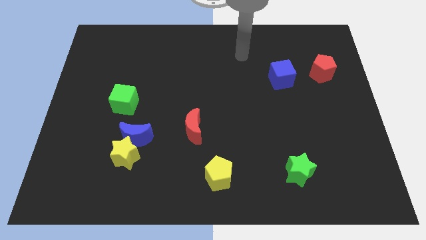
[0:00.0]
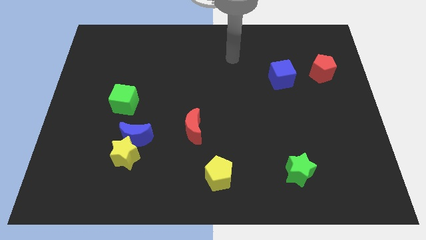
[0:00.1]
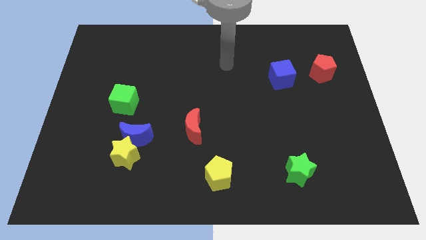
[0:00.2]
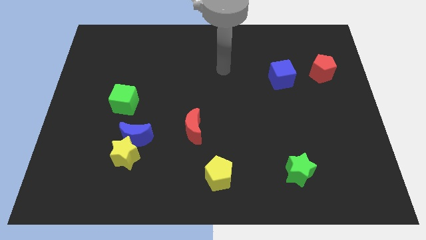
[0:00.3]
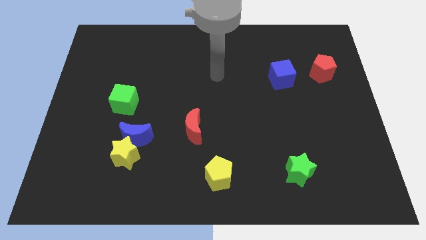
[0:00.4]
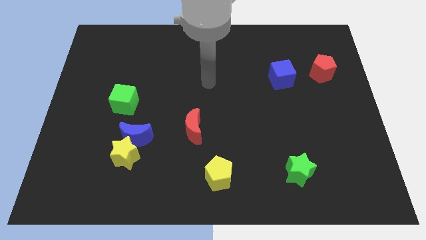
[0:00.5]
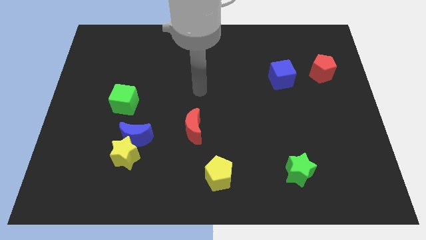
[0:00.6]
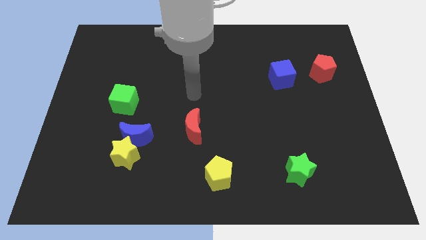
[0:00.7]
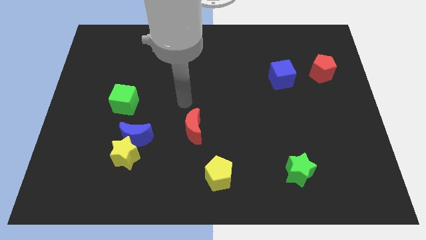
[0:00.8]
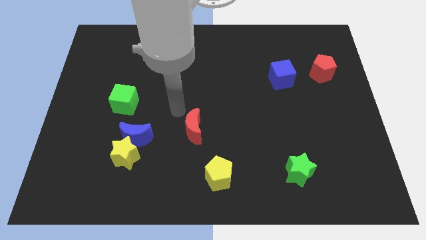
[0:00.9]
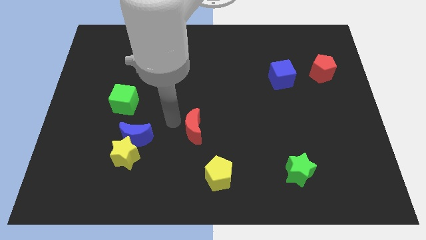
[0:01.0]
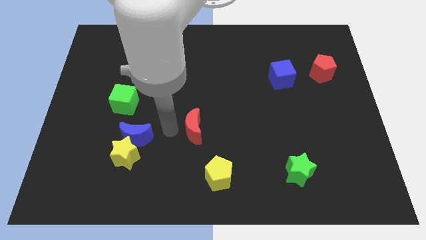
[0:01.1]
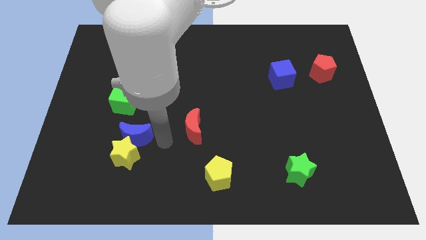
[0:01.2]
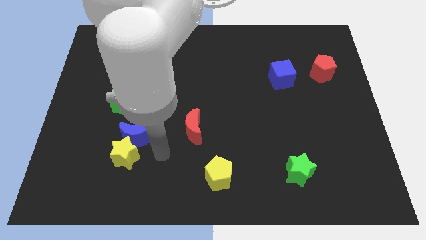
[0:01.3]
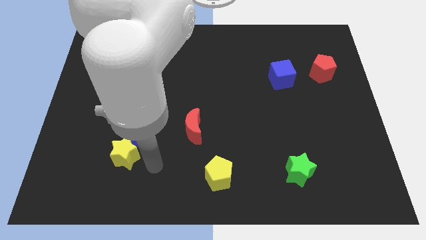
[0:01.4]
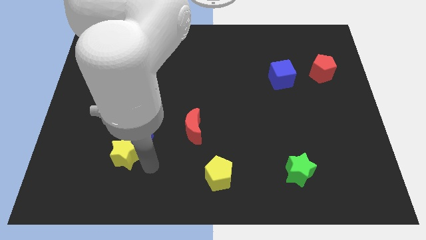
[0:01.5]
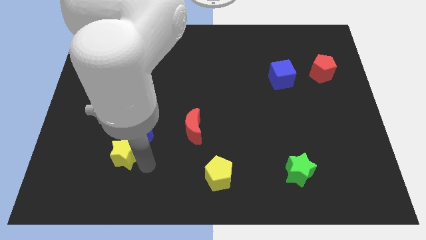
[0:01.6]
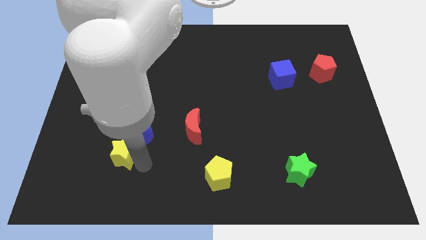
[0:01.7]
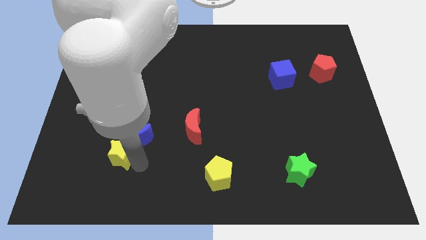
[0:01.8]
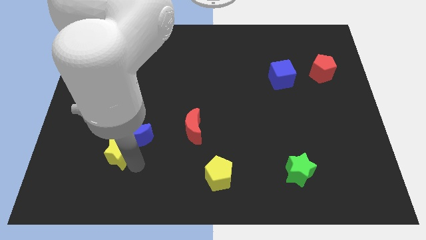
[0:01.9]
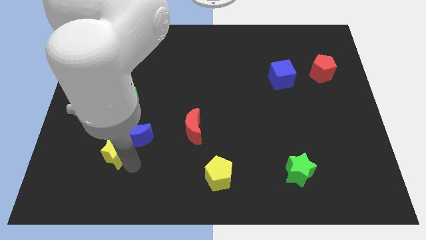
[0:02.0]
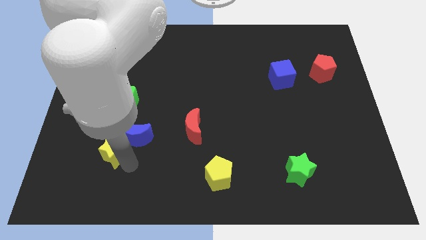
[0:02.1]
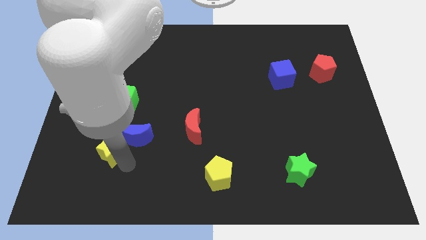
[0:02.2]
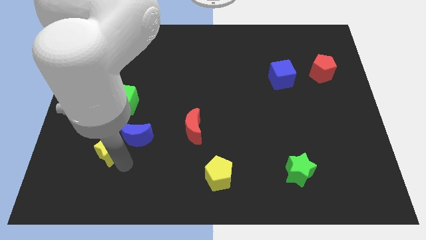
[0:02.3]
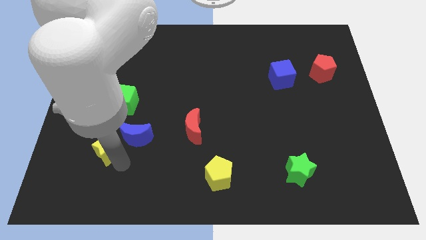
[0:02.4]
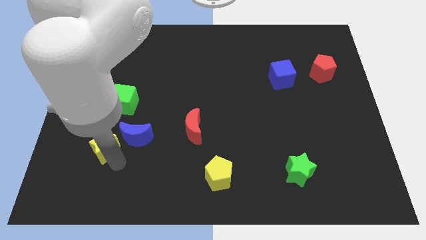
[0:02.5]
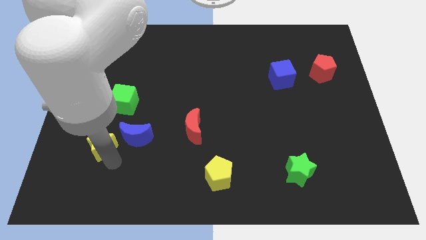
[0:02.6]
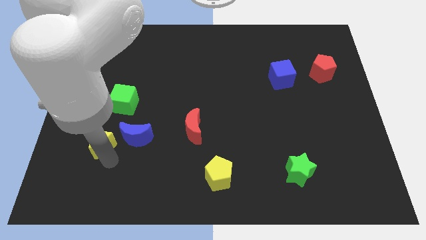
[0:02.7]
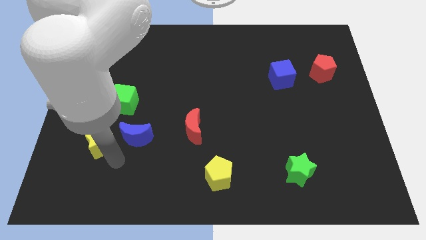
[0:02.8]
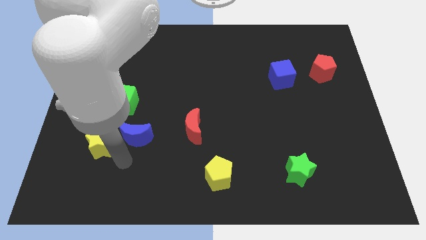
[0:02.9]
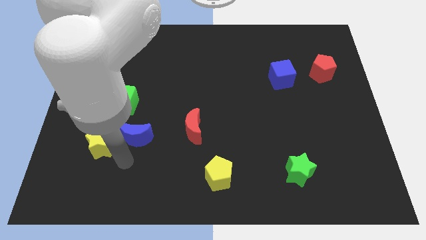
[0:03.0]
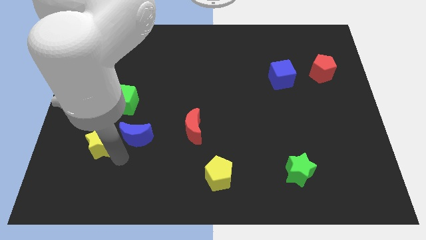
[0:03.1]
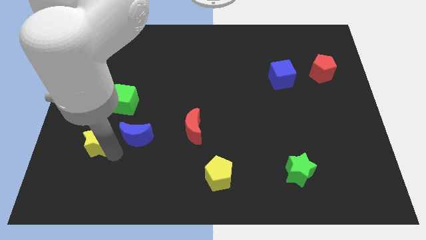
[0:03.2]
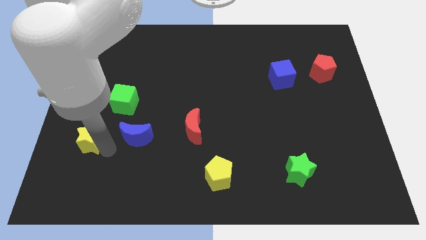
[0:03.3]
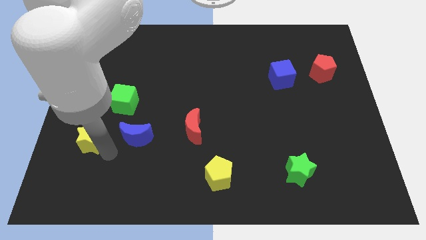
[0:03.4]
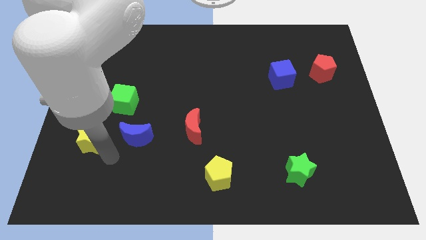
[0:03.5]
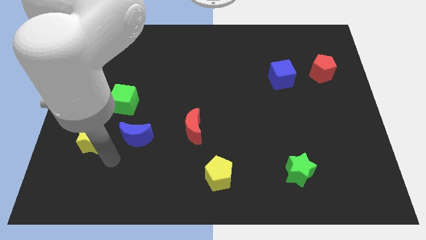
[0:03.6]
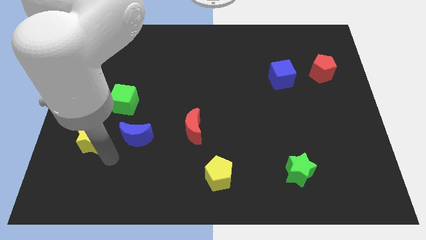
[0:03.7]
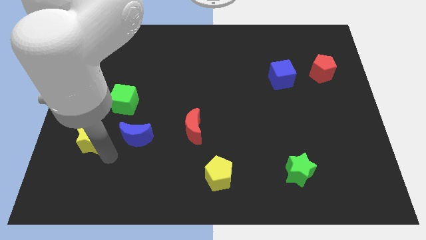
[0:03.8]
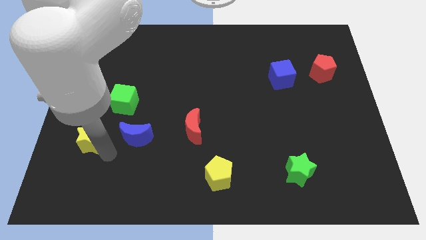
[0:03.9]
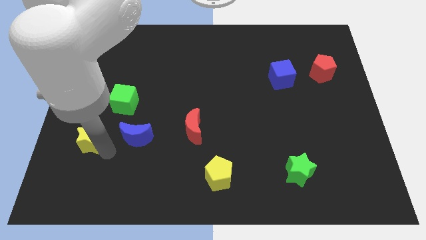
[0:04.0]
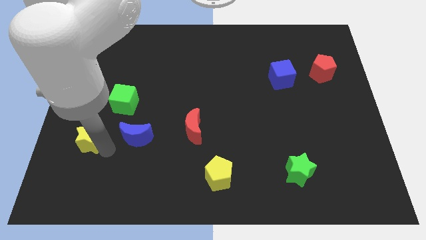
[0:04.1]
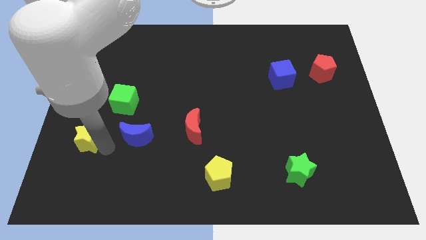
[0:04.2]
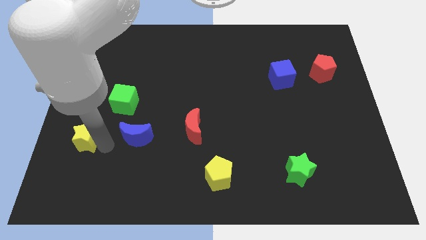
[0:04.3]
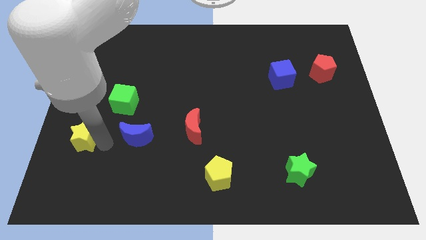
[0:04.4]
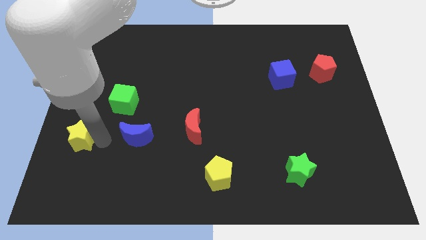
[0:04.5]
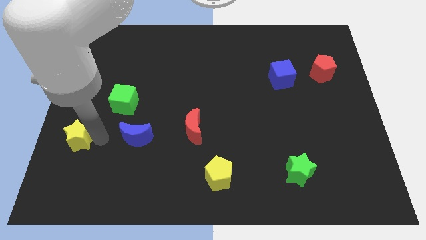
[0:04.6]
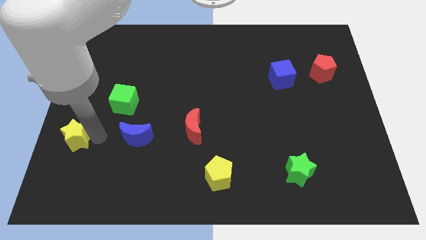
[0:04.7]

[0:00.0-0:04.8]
slide the yellow star to the center left

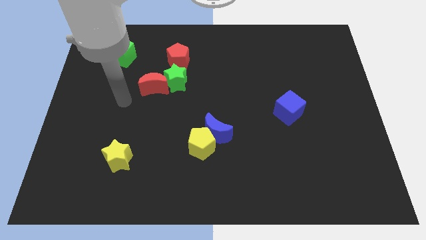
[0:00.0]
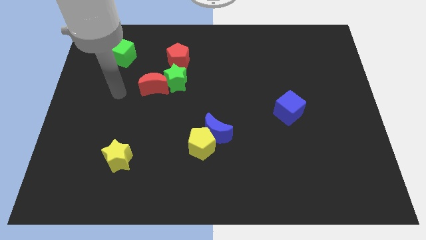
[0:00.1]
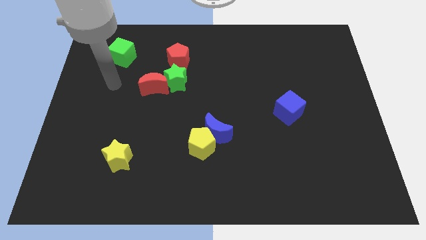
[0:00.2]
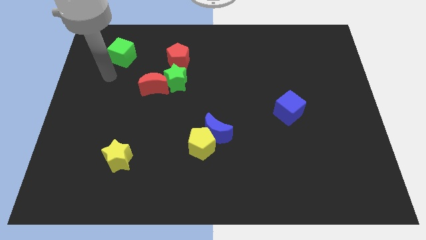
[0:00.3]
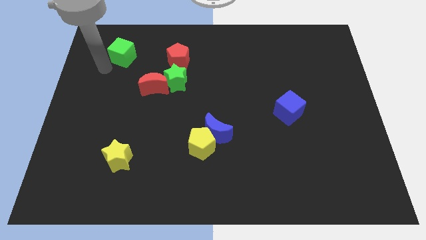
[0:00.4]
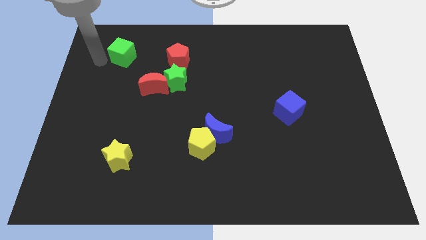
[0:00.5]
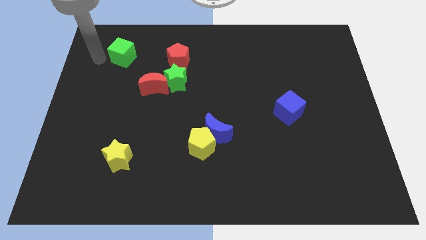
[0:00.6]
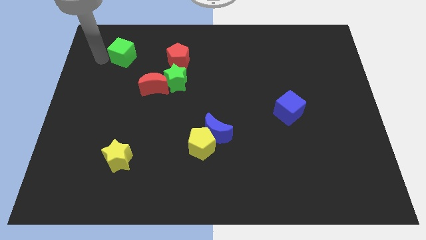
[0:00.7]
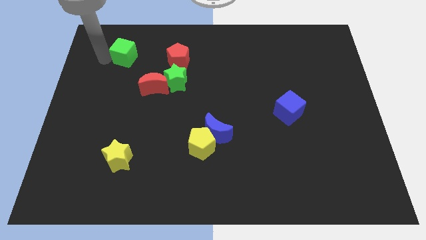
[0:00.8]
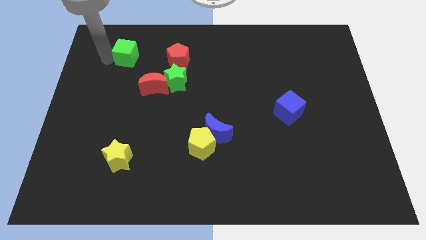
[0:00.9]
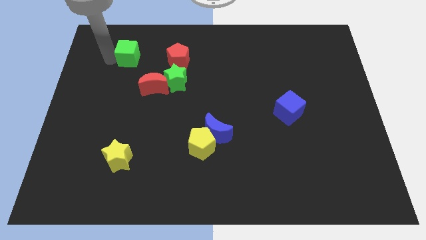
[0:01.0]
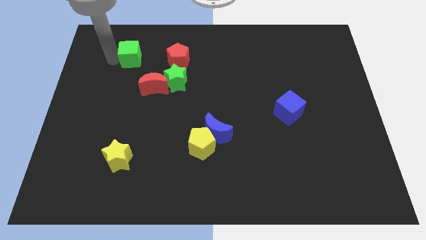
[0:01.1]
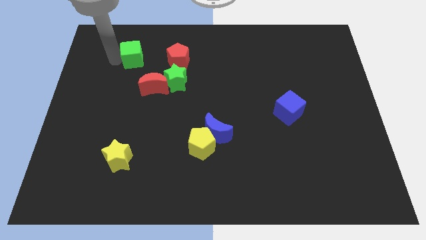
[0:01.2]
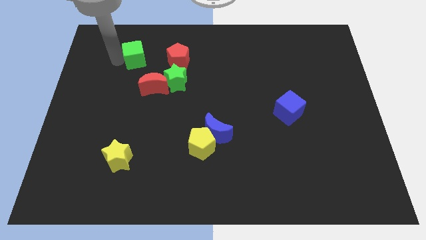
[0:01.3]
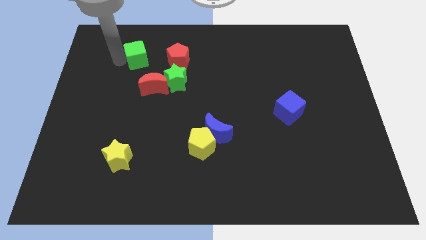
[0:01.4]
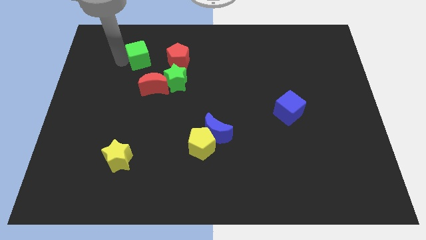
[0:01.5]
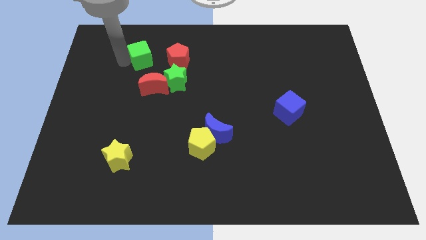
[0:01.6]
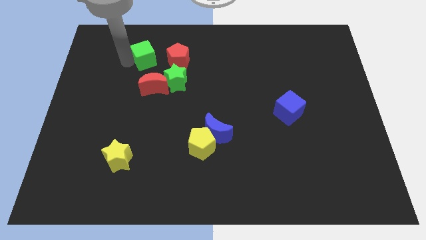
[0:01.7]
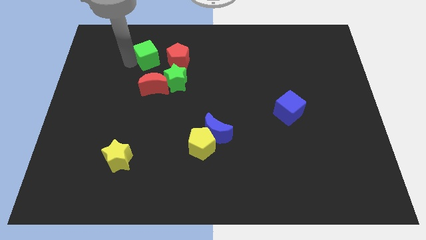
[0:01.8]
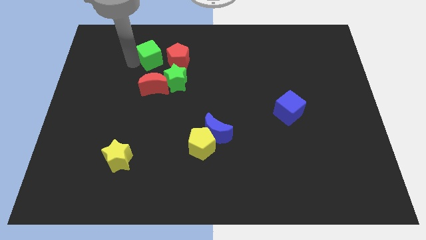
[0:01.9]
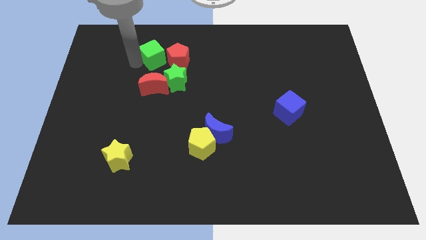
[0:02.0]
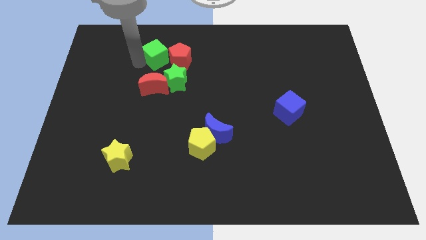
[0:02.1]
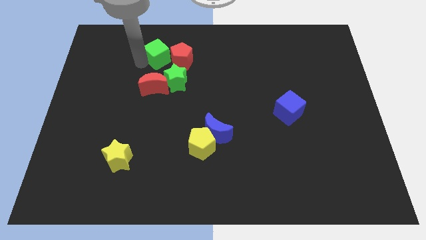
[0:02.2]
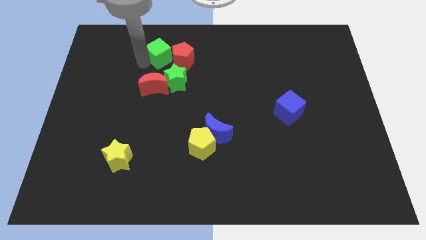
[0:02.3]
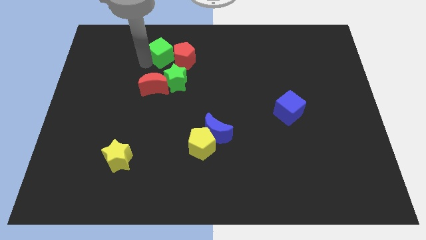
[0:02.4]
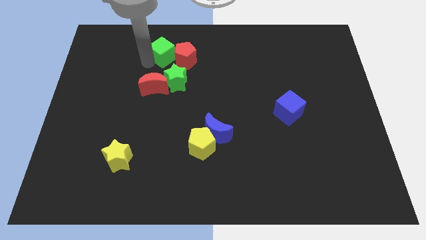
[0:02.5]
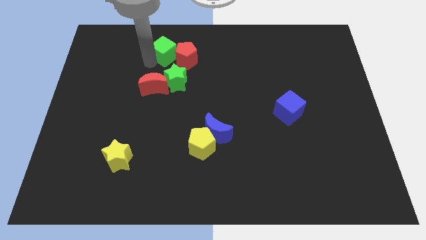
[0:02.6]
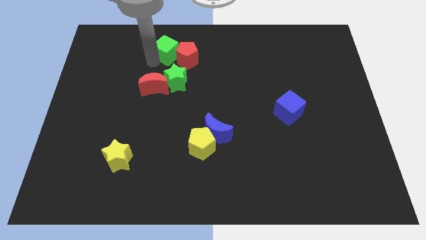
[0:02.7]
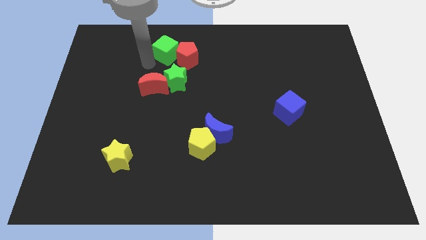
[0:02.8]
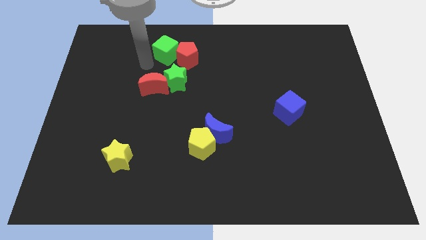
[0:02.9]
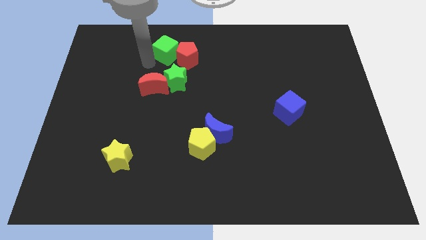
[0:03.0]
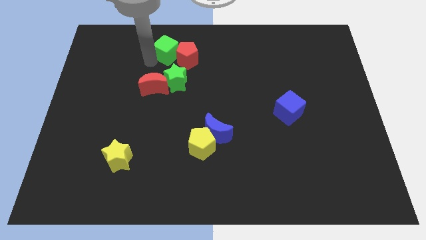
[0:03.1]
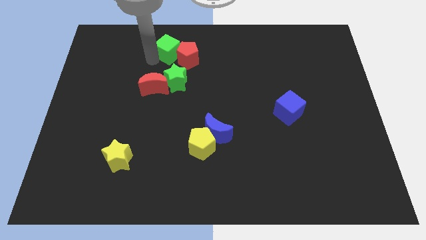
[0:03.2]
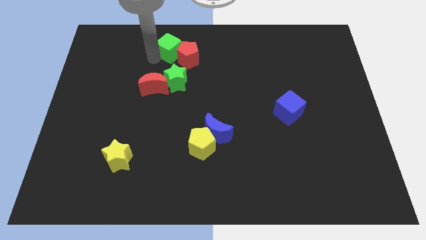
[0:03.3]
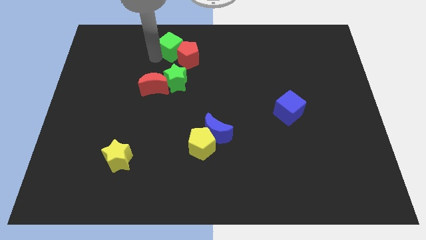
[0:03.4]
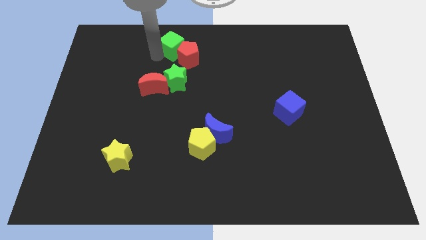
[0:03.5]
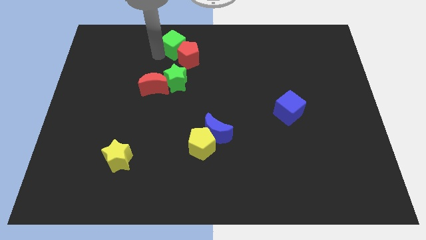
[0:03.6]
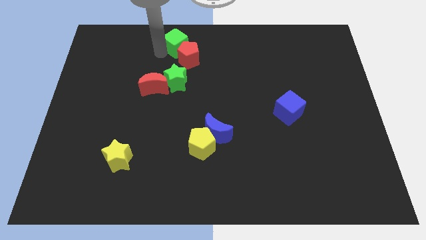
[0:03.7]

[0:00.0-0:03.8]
slide the green cube to the top side
